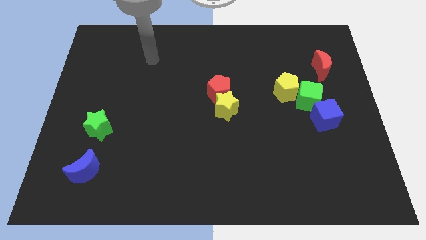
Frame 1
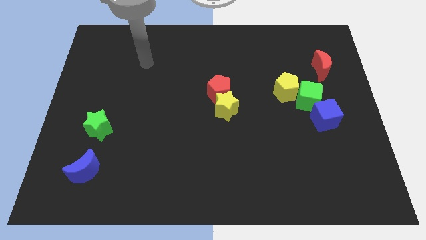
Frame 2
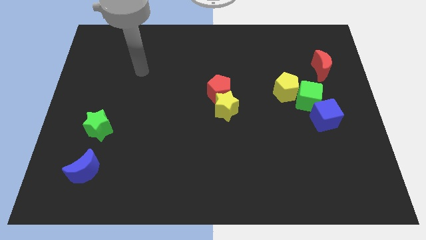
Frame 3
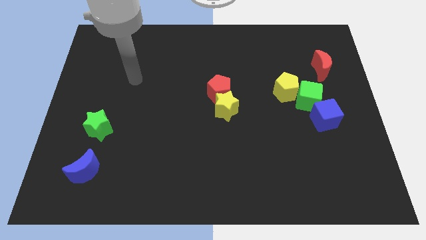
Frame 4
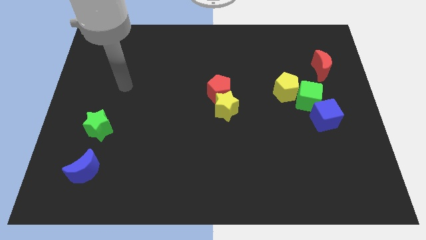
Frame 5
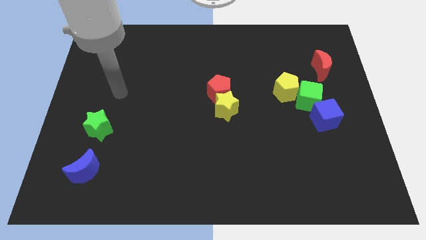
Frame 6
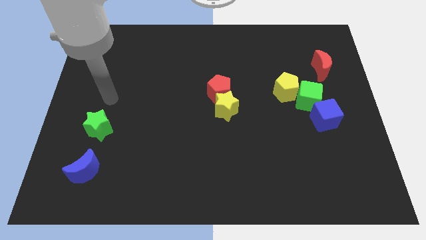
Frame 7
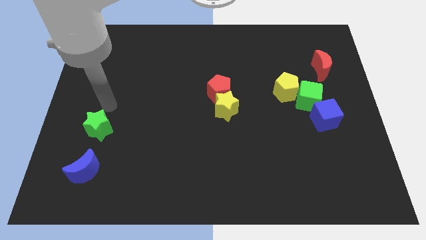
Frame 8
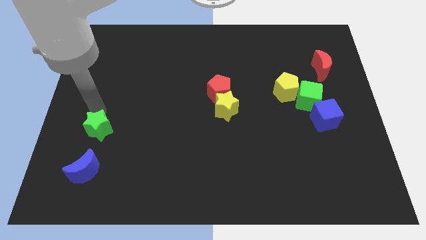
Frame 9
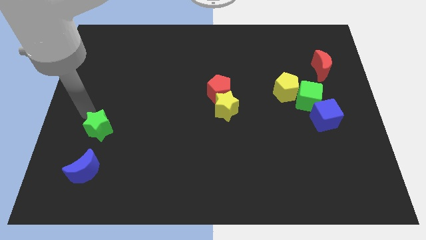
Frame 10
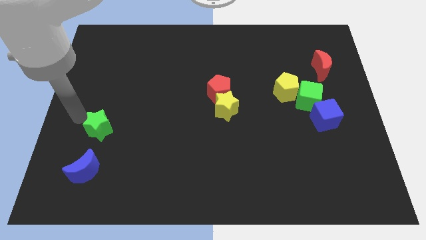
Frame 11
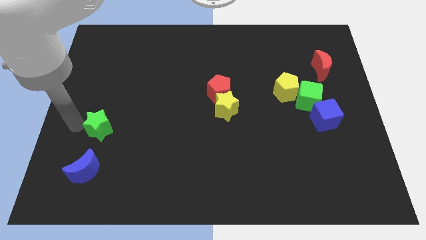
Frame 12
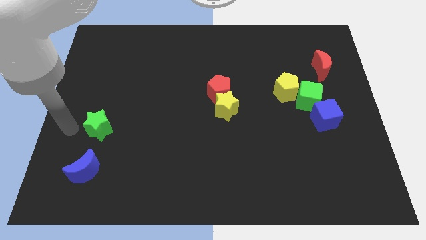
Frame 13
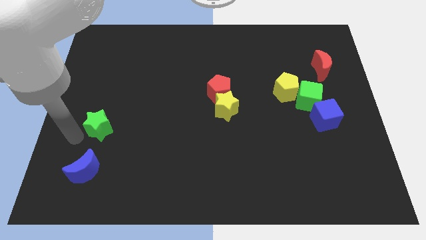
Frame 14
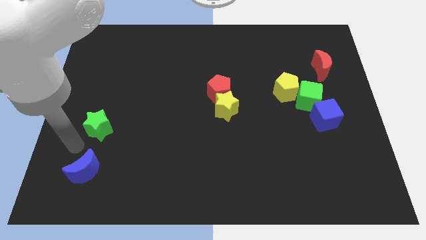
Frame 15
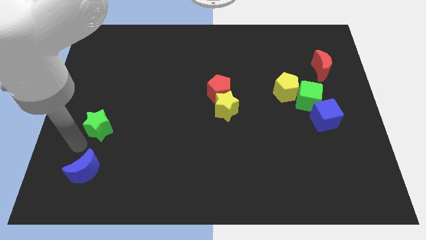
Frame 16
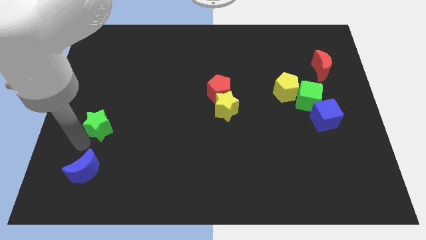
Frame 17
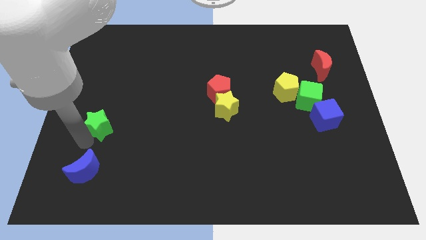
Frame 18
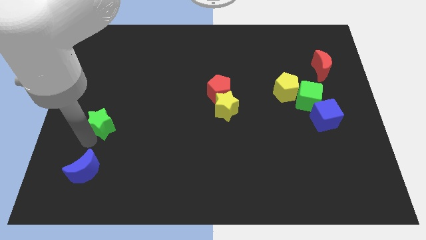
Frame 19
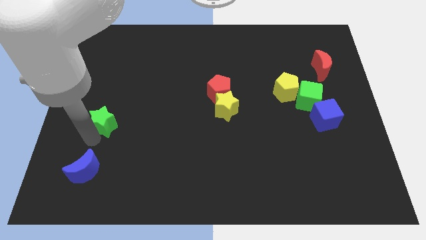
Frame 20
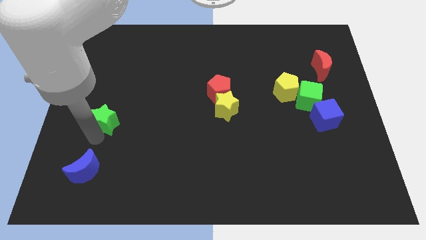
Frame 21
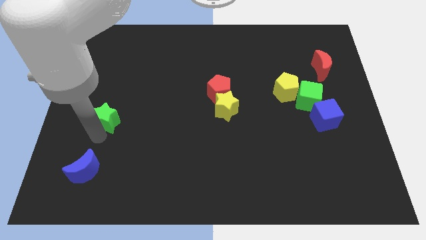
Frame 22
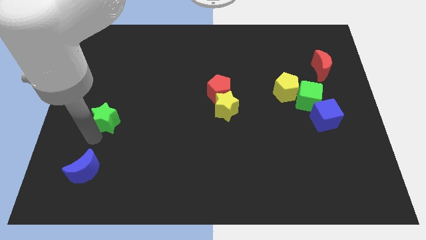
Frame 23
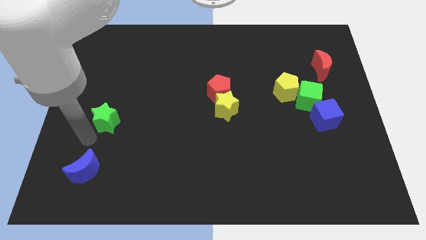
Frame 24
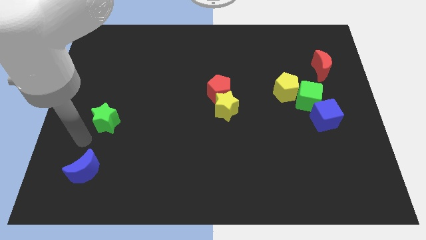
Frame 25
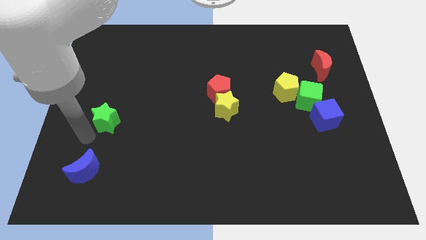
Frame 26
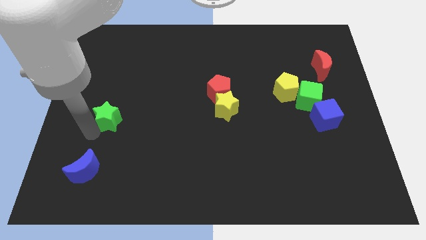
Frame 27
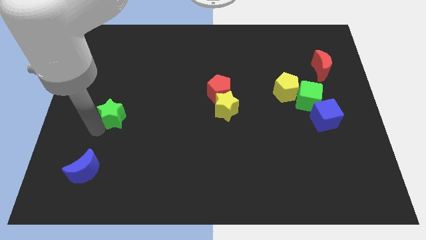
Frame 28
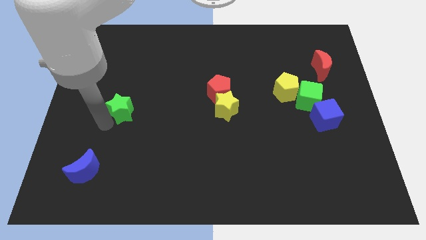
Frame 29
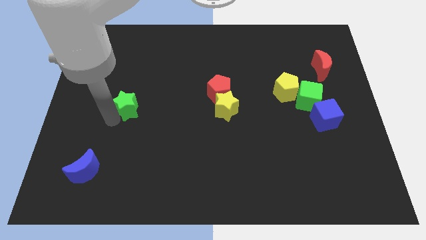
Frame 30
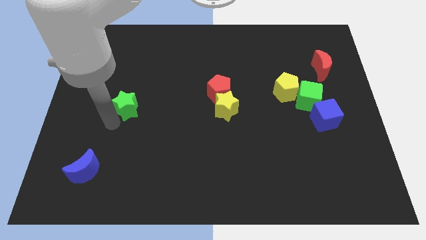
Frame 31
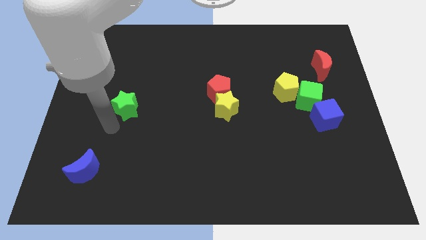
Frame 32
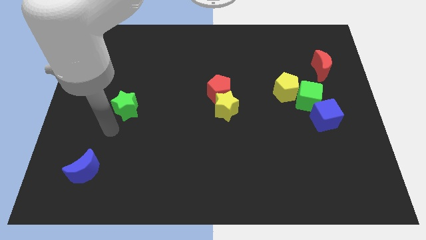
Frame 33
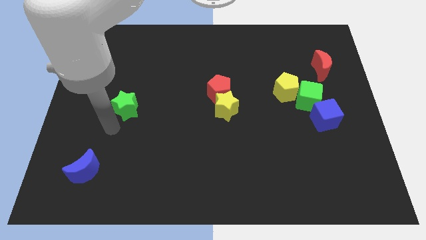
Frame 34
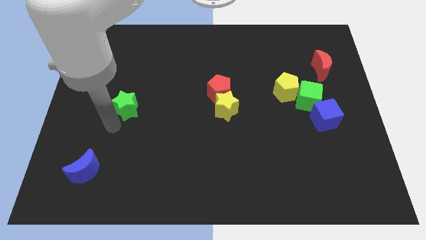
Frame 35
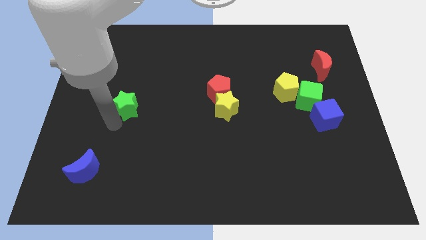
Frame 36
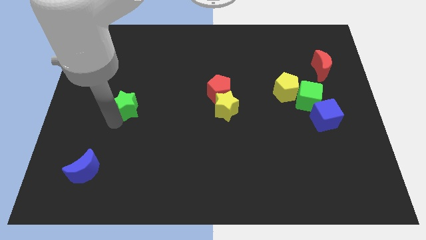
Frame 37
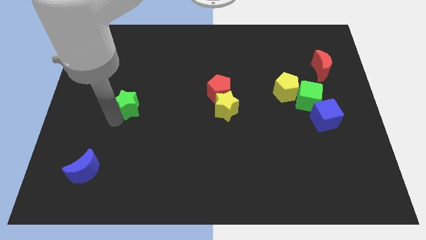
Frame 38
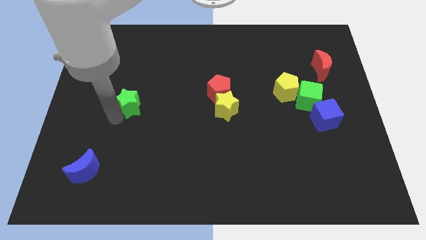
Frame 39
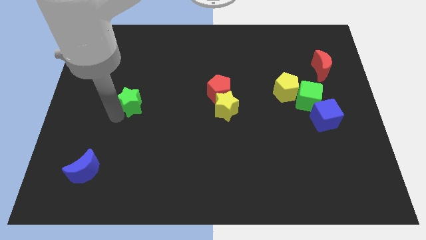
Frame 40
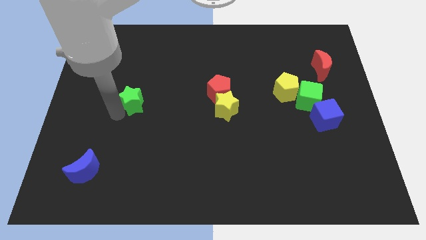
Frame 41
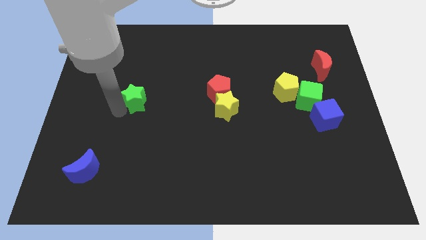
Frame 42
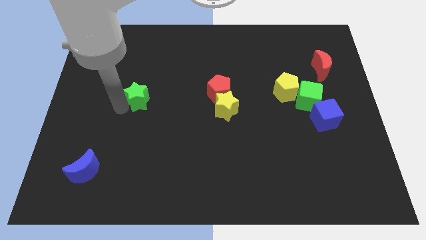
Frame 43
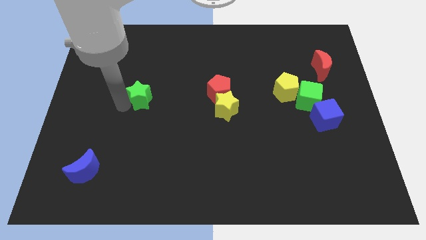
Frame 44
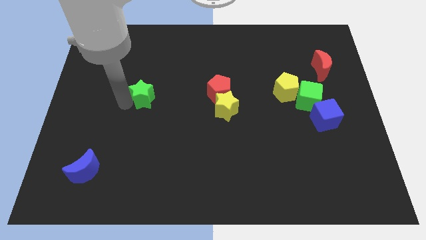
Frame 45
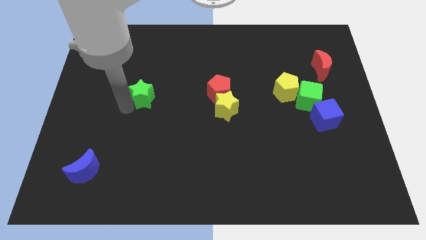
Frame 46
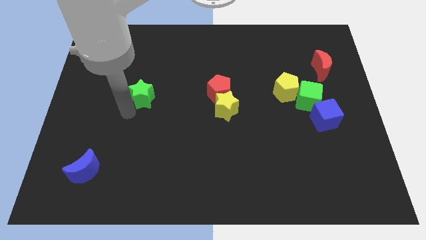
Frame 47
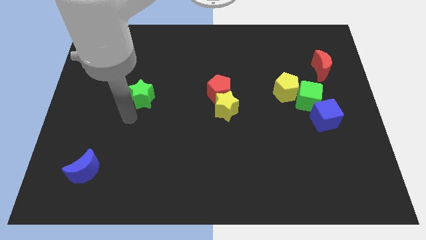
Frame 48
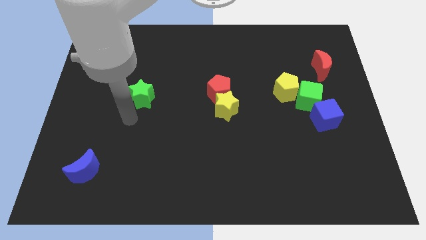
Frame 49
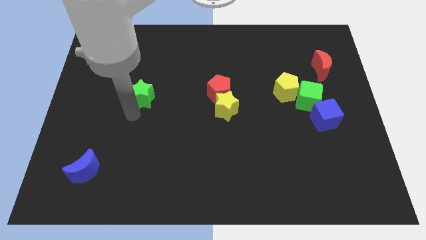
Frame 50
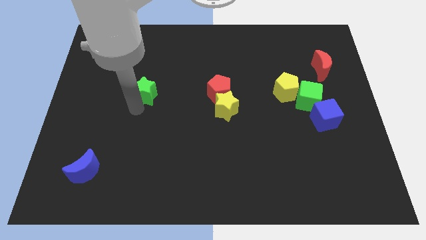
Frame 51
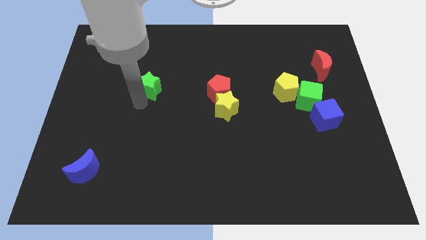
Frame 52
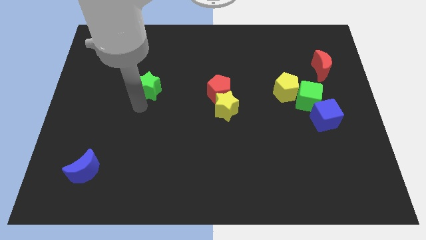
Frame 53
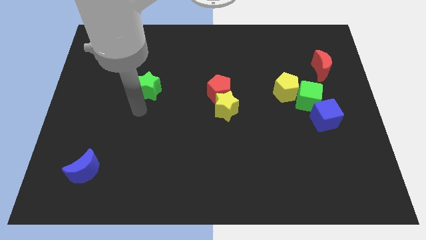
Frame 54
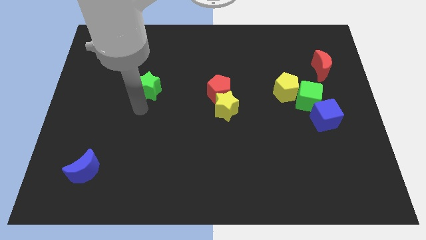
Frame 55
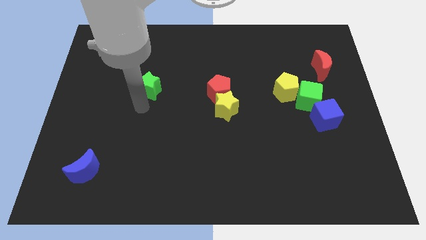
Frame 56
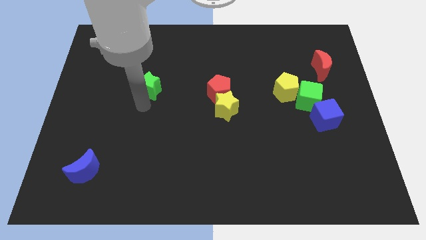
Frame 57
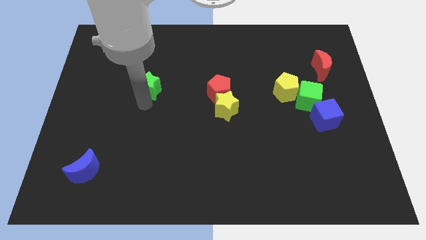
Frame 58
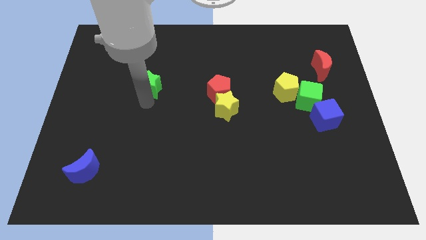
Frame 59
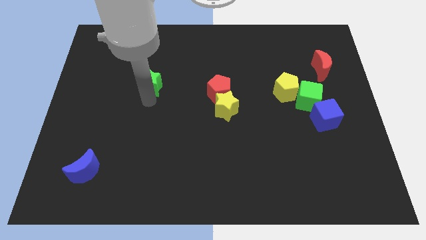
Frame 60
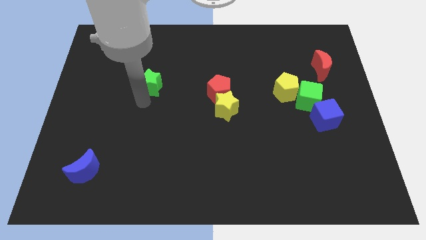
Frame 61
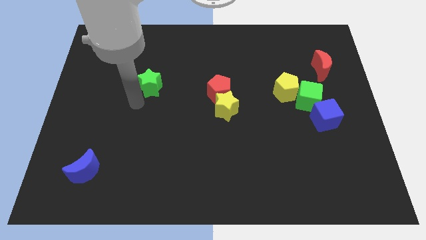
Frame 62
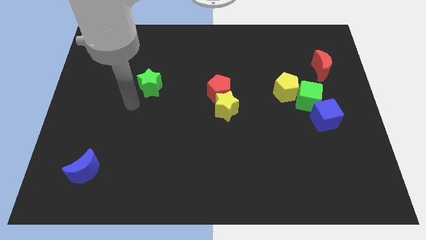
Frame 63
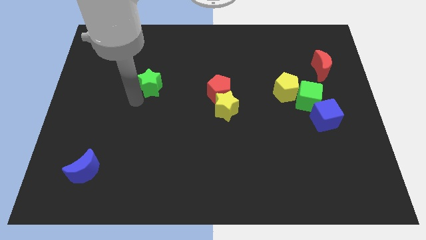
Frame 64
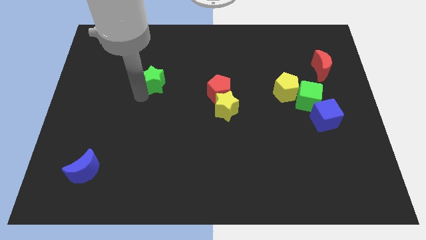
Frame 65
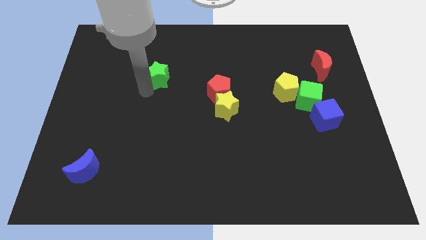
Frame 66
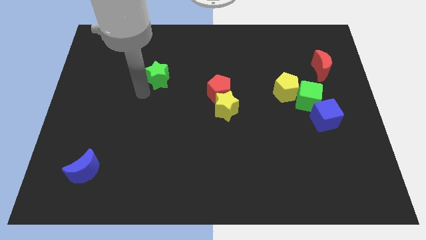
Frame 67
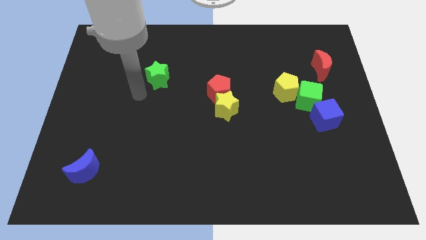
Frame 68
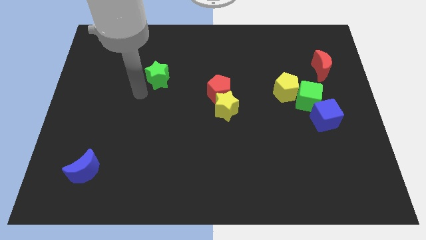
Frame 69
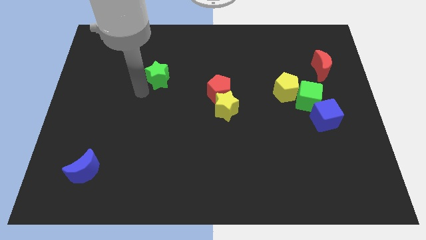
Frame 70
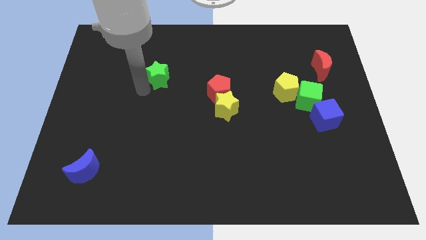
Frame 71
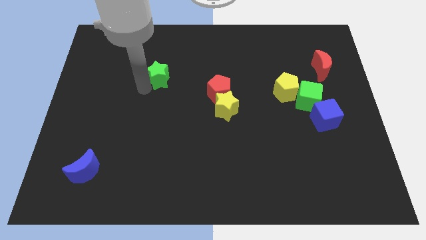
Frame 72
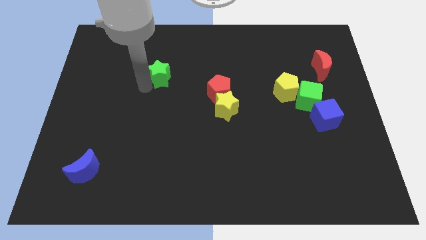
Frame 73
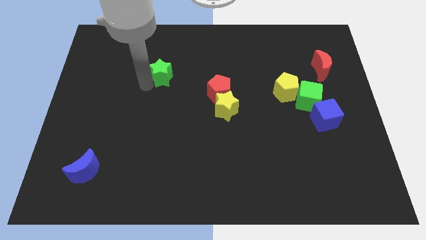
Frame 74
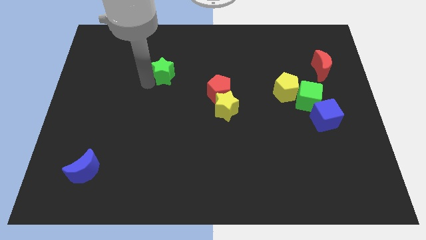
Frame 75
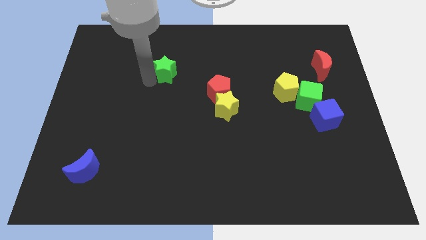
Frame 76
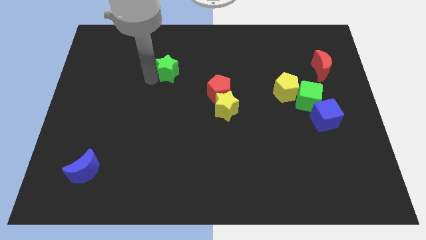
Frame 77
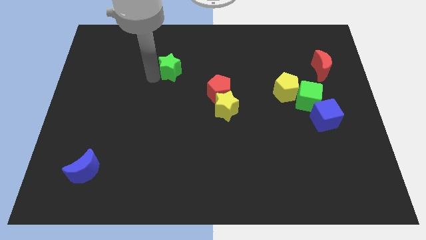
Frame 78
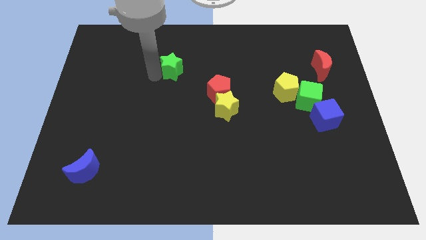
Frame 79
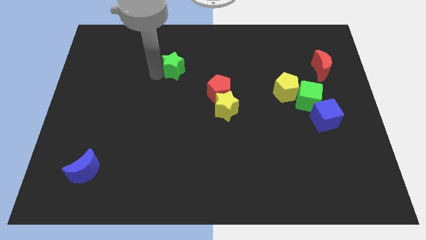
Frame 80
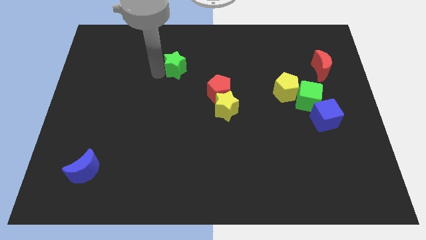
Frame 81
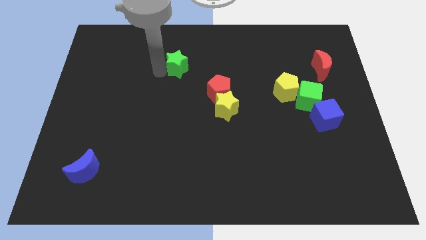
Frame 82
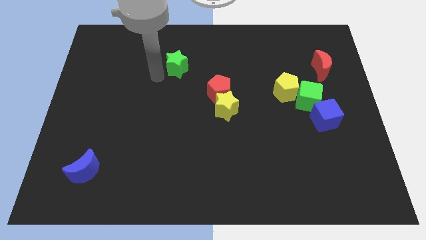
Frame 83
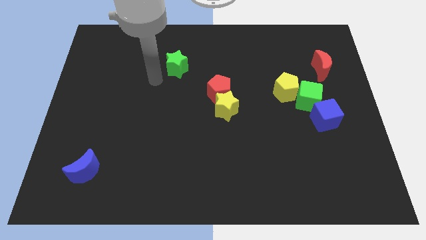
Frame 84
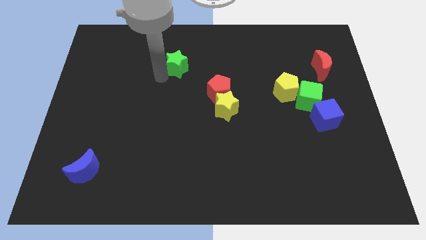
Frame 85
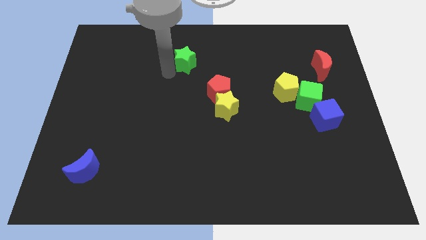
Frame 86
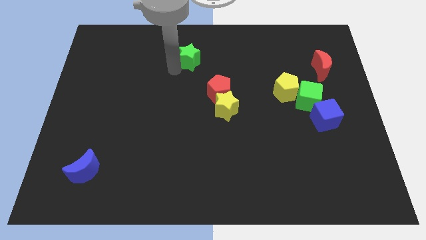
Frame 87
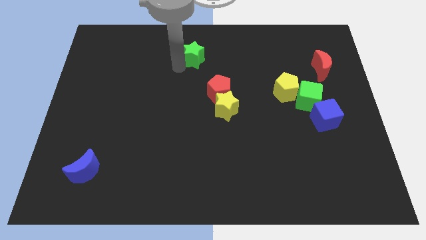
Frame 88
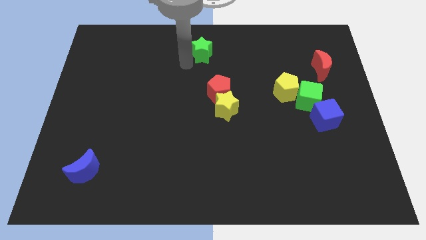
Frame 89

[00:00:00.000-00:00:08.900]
put the green star to the top
